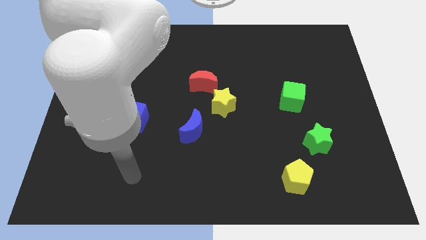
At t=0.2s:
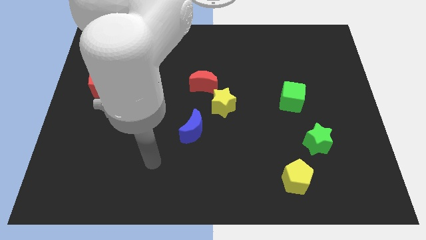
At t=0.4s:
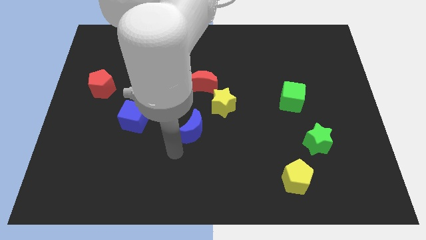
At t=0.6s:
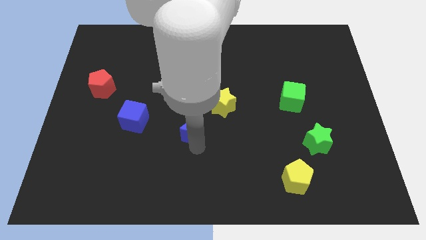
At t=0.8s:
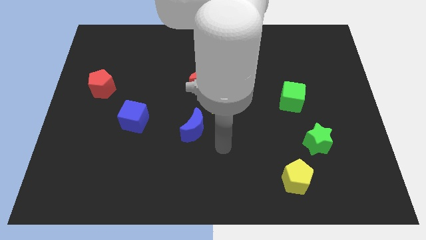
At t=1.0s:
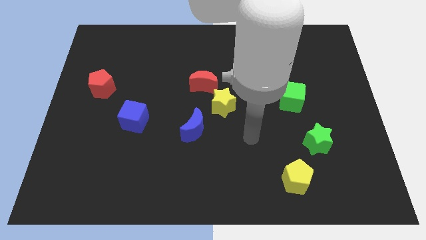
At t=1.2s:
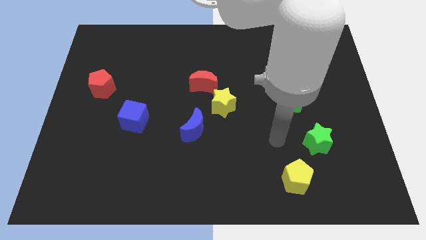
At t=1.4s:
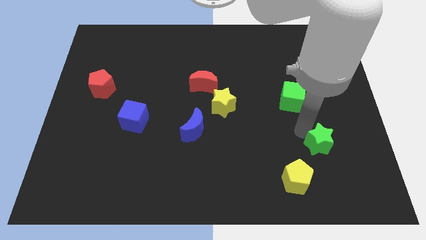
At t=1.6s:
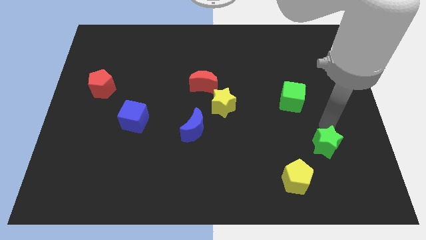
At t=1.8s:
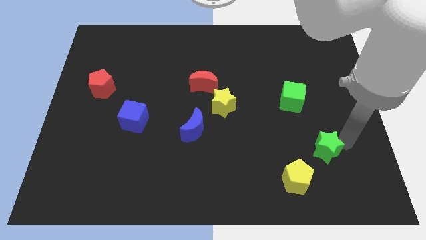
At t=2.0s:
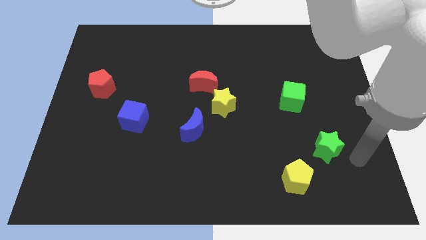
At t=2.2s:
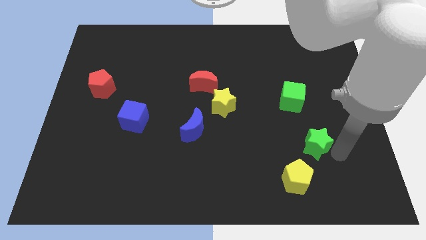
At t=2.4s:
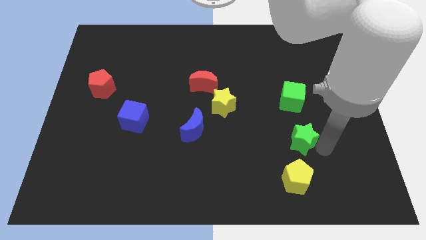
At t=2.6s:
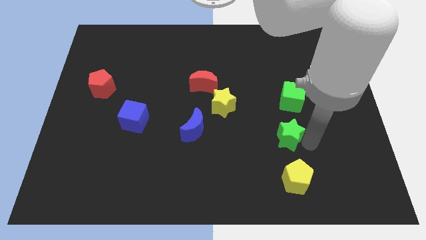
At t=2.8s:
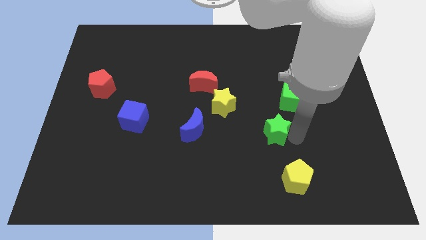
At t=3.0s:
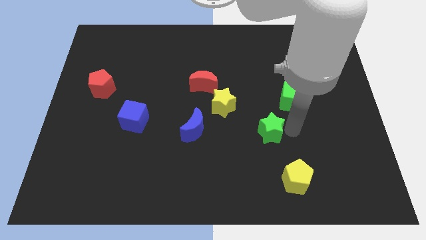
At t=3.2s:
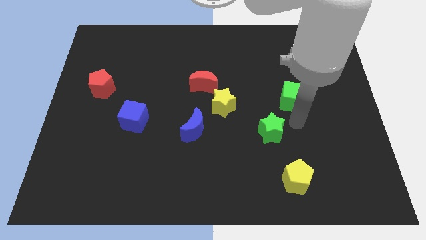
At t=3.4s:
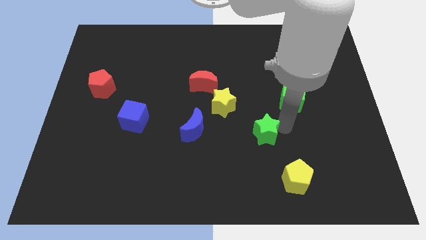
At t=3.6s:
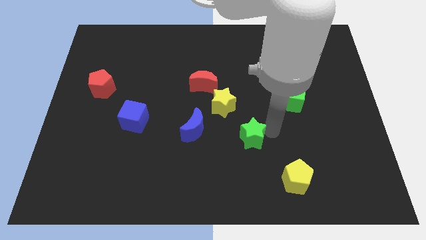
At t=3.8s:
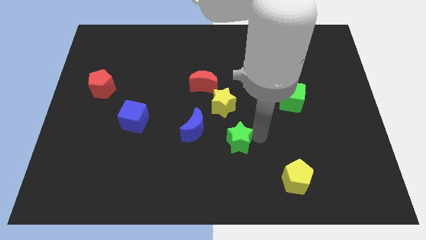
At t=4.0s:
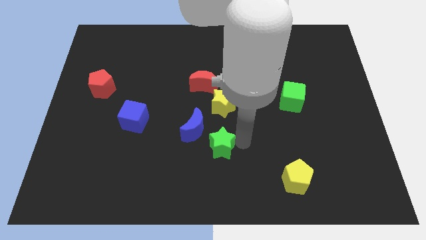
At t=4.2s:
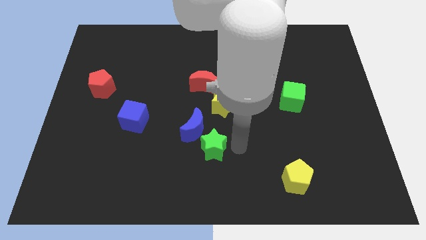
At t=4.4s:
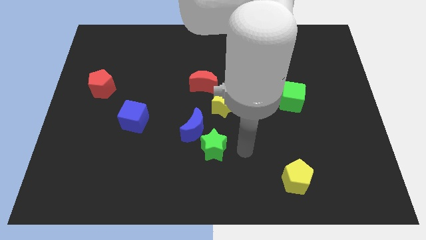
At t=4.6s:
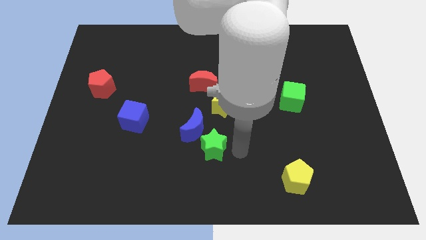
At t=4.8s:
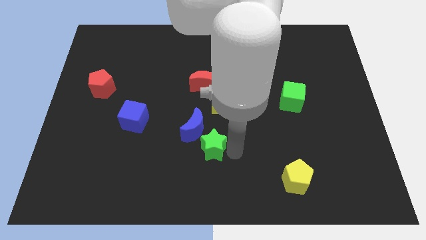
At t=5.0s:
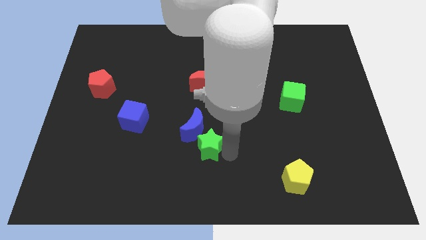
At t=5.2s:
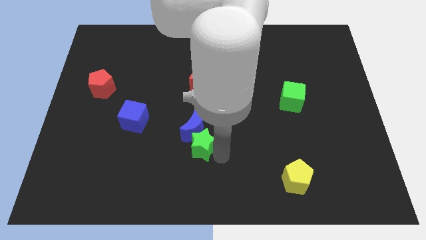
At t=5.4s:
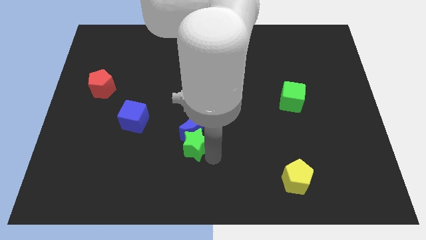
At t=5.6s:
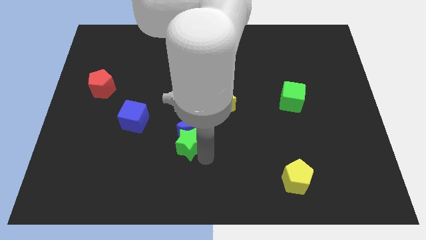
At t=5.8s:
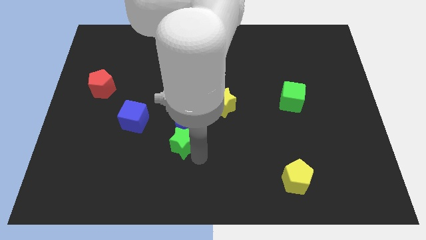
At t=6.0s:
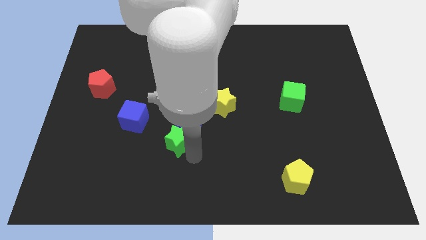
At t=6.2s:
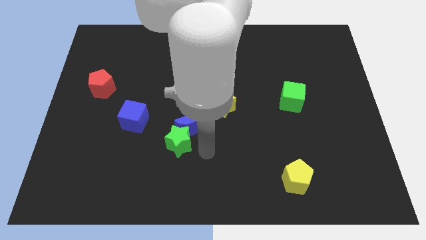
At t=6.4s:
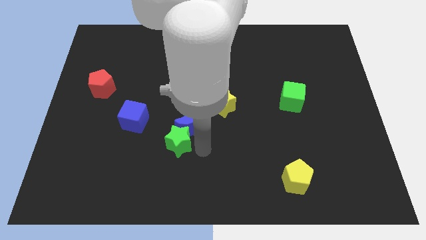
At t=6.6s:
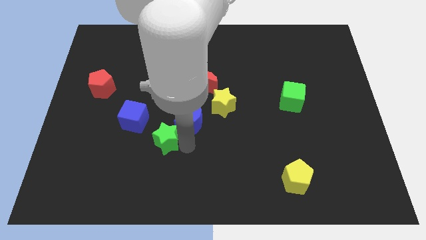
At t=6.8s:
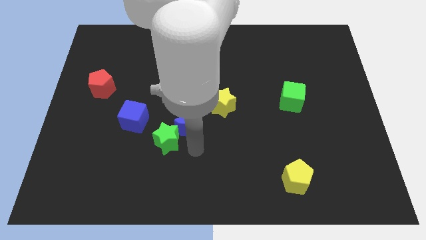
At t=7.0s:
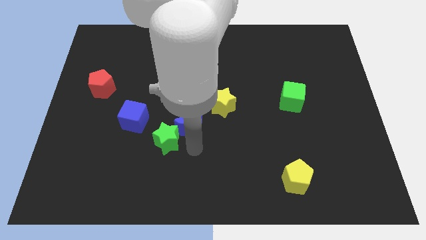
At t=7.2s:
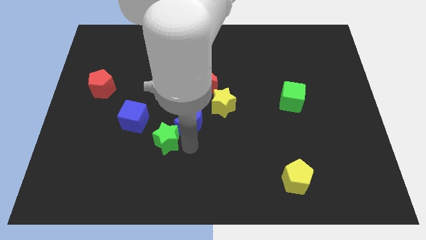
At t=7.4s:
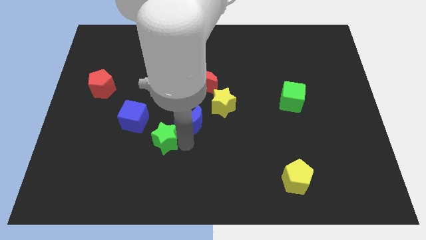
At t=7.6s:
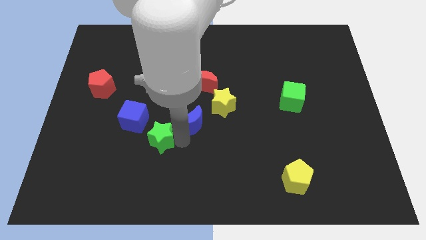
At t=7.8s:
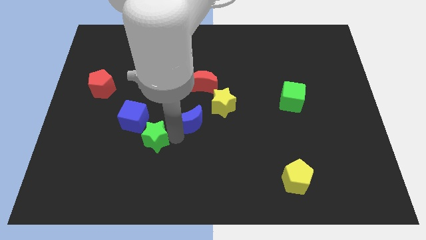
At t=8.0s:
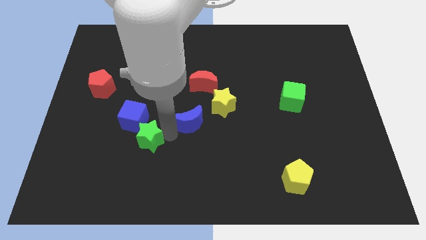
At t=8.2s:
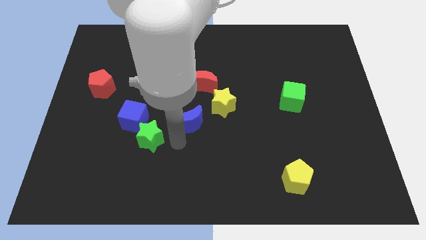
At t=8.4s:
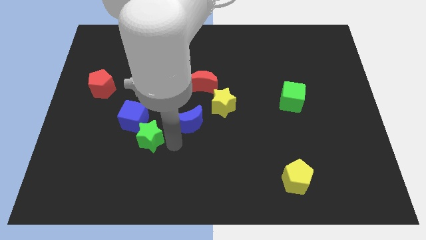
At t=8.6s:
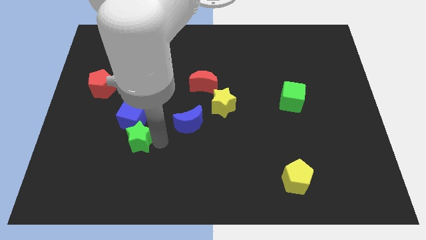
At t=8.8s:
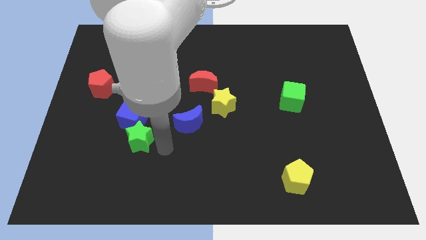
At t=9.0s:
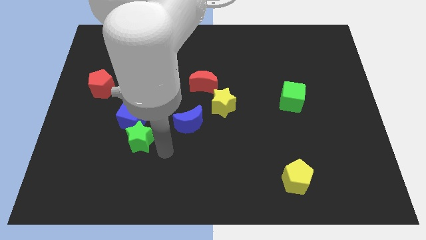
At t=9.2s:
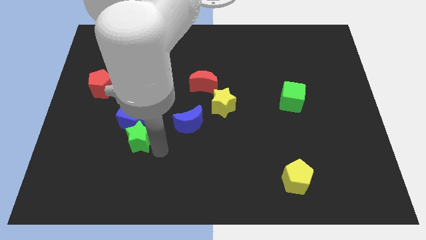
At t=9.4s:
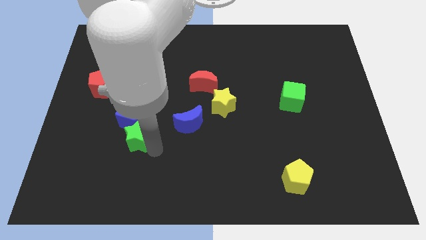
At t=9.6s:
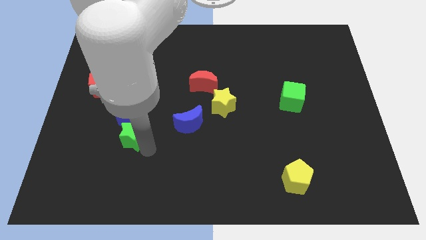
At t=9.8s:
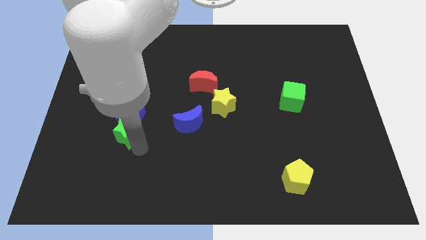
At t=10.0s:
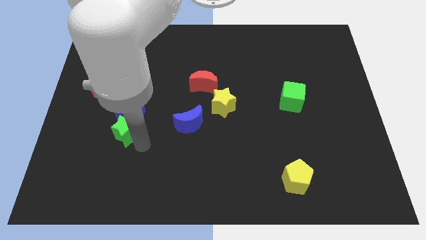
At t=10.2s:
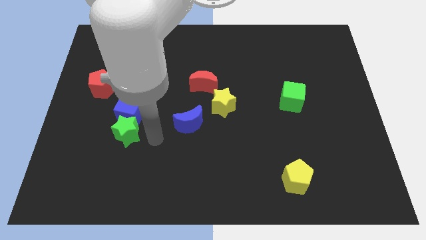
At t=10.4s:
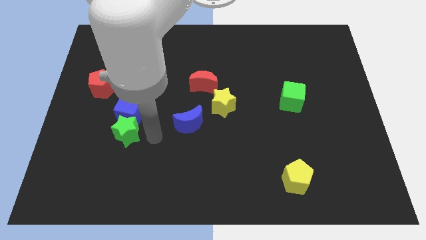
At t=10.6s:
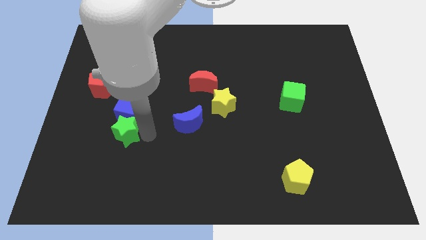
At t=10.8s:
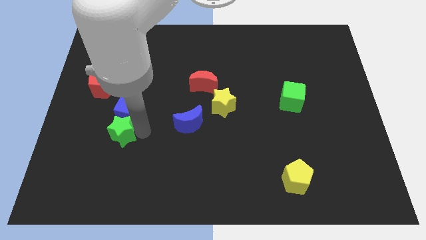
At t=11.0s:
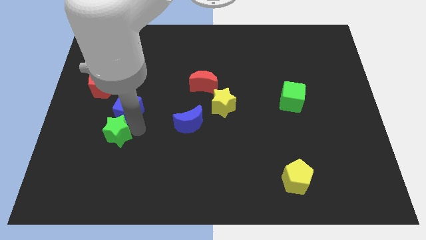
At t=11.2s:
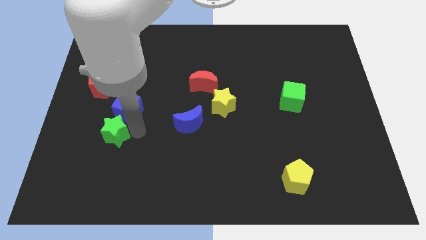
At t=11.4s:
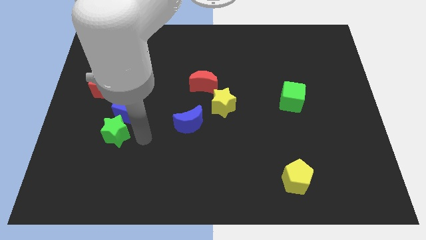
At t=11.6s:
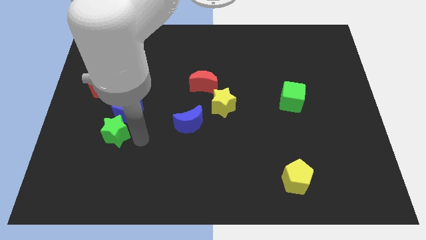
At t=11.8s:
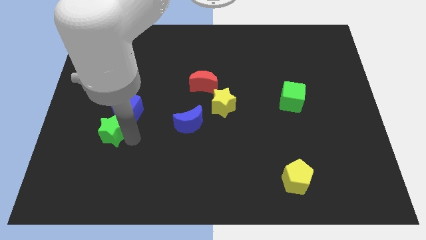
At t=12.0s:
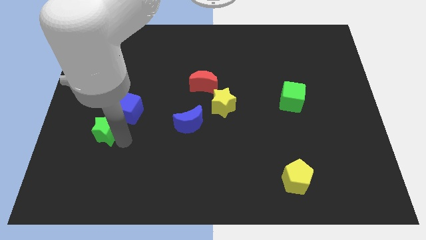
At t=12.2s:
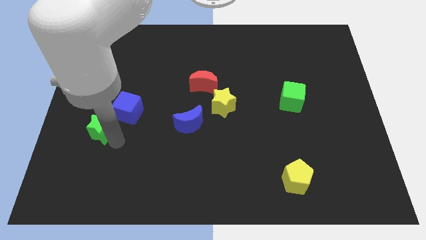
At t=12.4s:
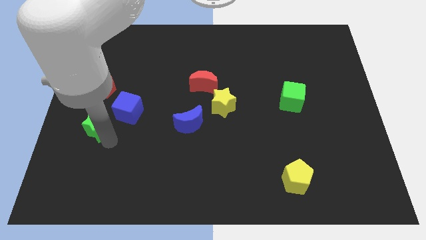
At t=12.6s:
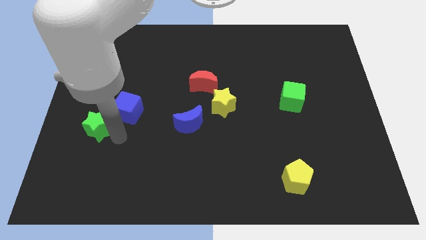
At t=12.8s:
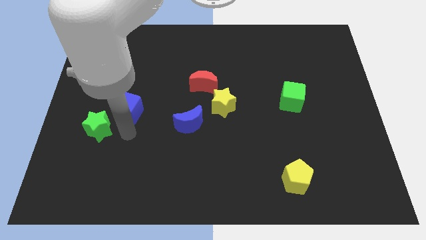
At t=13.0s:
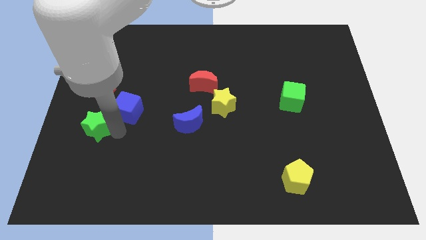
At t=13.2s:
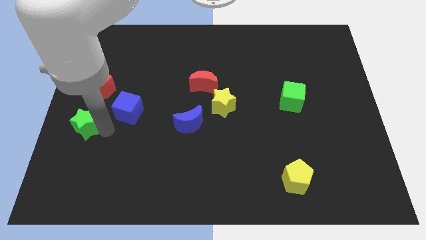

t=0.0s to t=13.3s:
slide the green star to the center left

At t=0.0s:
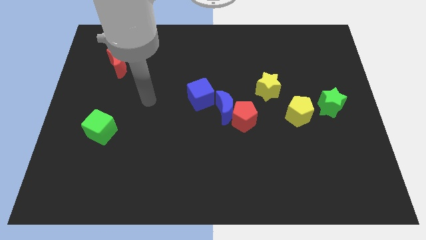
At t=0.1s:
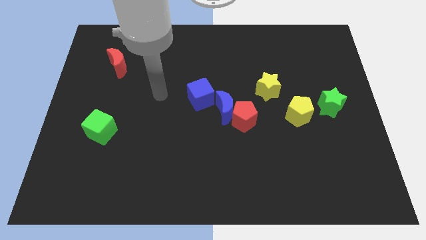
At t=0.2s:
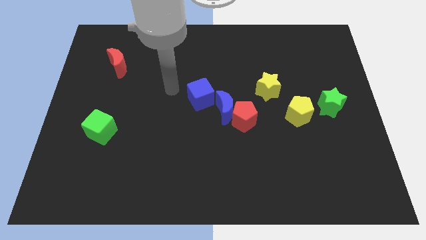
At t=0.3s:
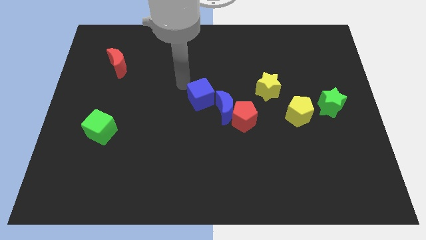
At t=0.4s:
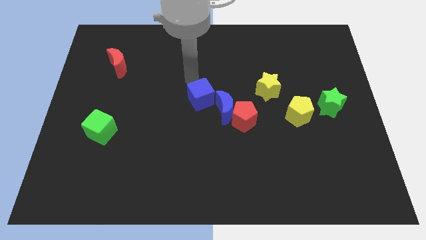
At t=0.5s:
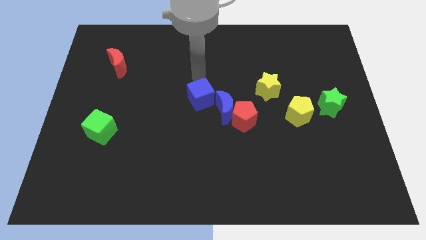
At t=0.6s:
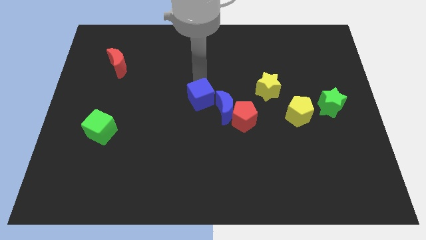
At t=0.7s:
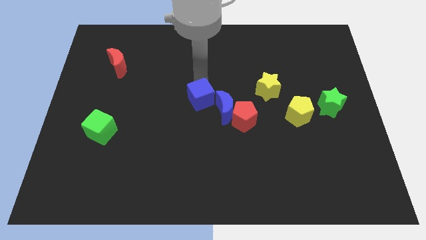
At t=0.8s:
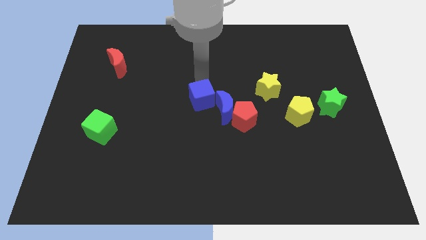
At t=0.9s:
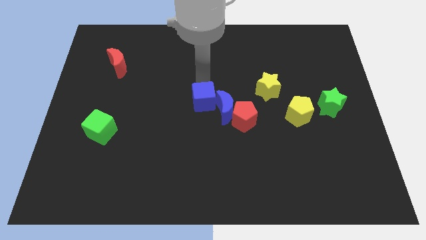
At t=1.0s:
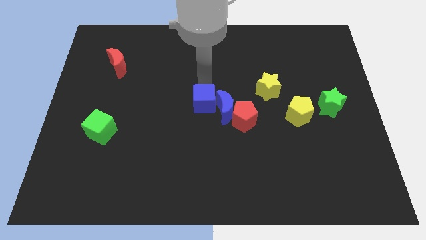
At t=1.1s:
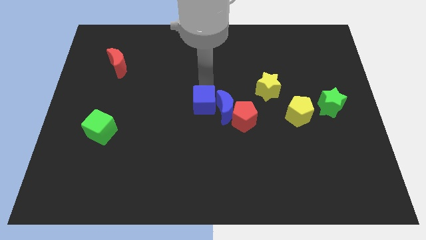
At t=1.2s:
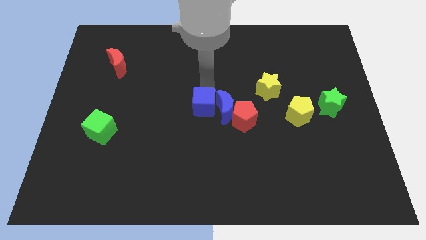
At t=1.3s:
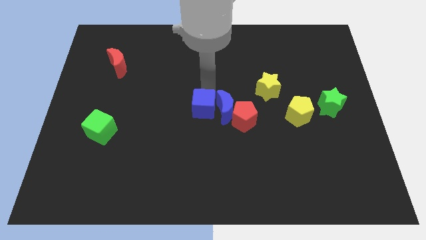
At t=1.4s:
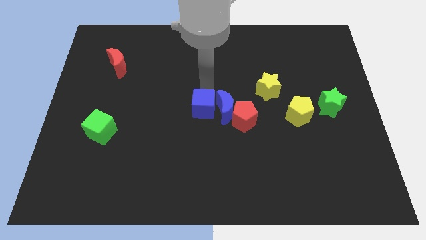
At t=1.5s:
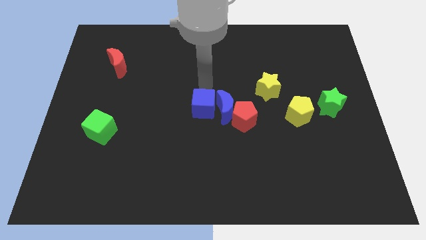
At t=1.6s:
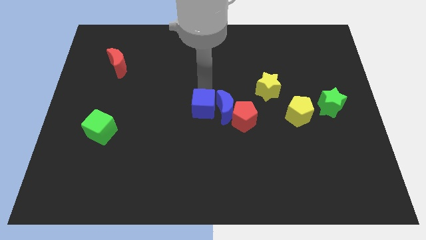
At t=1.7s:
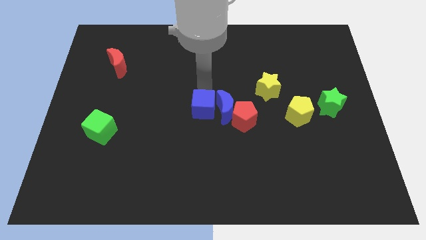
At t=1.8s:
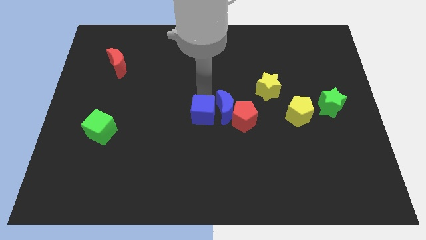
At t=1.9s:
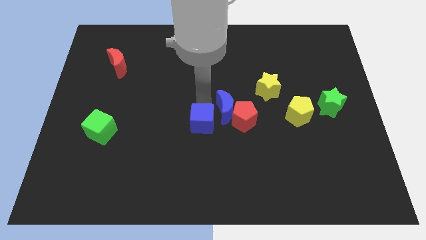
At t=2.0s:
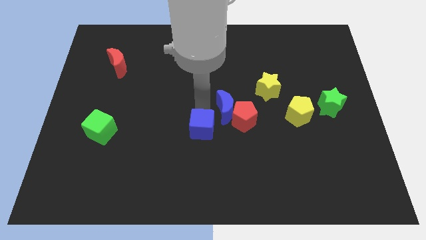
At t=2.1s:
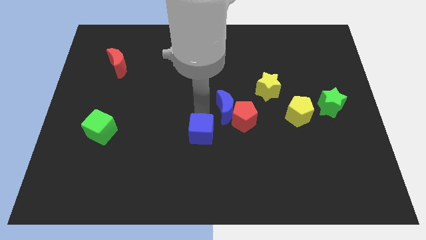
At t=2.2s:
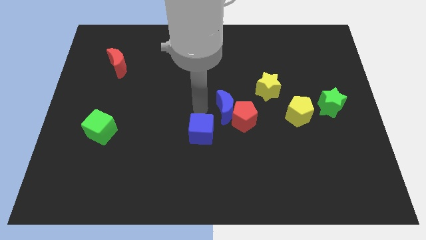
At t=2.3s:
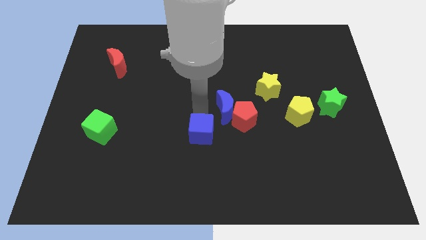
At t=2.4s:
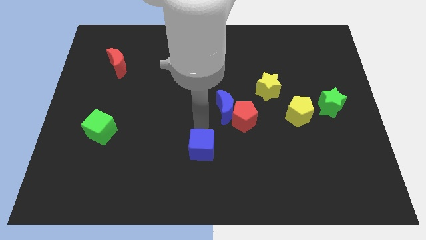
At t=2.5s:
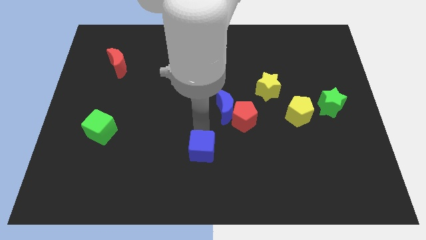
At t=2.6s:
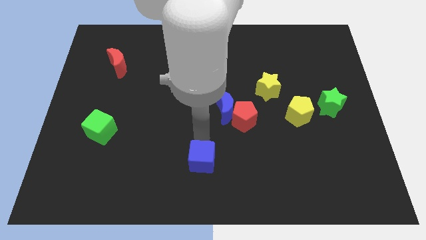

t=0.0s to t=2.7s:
move the blue cube to the bottom
